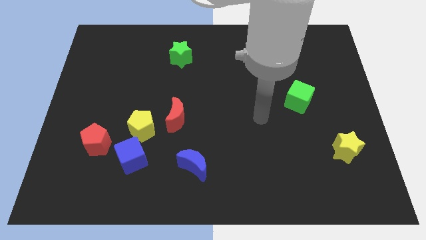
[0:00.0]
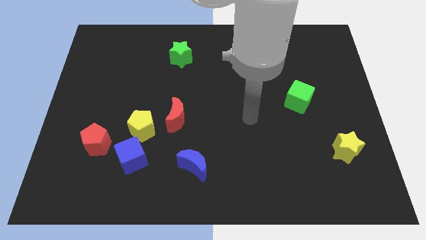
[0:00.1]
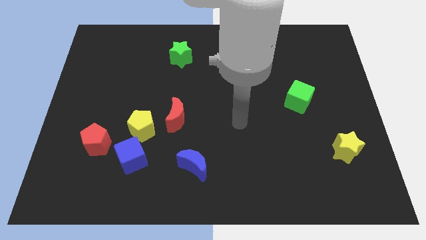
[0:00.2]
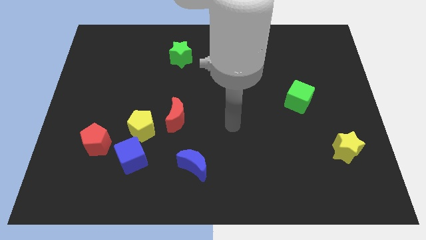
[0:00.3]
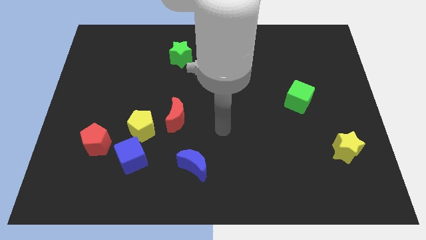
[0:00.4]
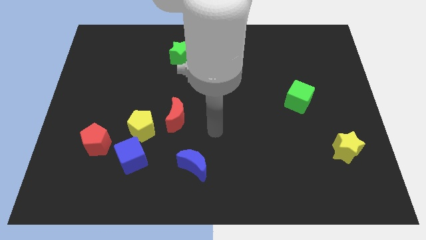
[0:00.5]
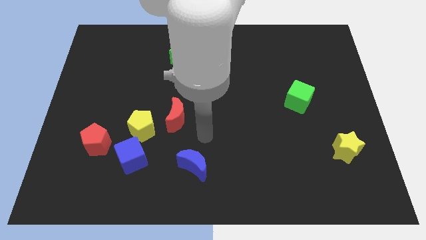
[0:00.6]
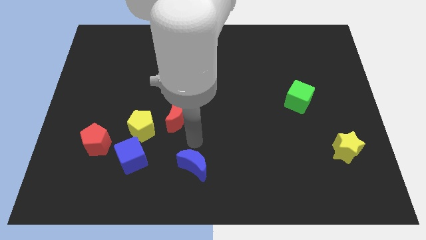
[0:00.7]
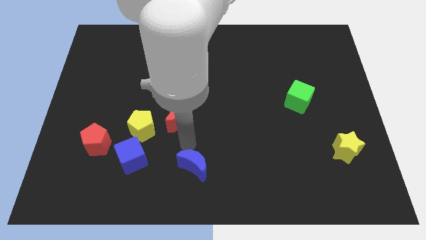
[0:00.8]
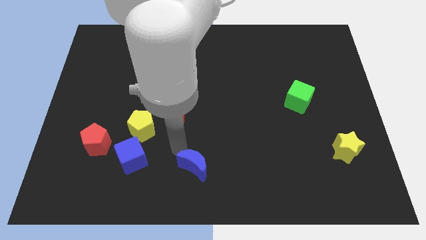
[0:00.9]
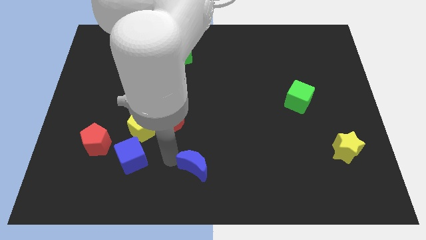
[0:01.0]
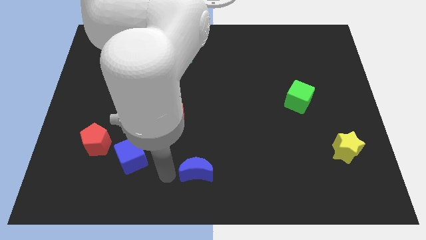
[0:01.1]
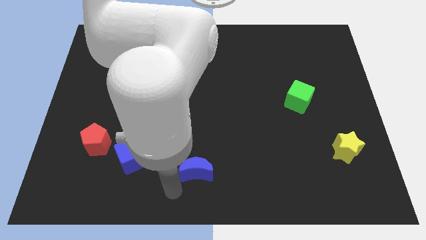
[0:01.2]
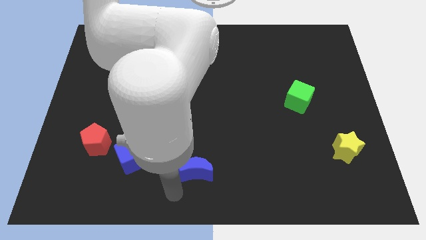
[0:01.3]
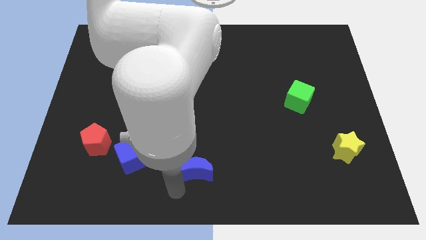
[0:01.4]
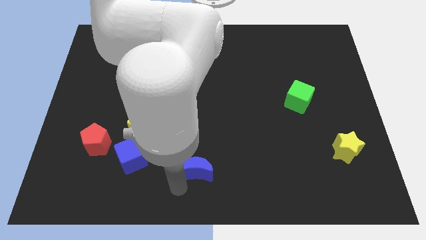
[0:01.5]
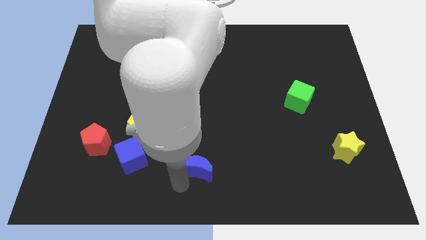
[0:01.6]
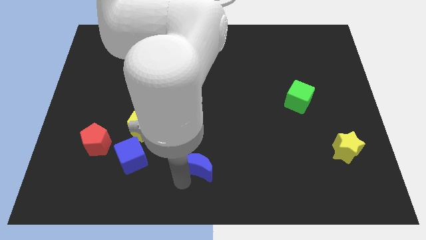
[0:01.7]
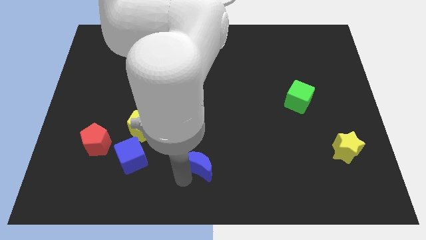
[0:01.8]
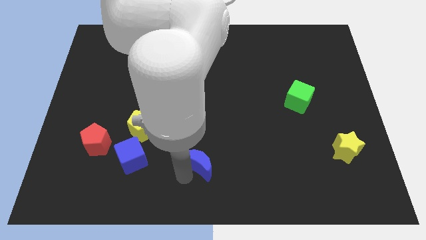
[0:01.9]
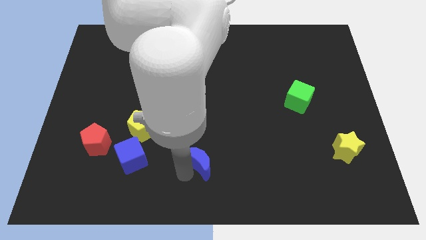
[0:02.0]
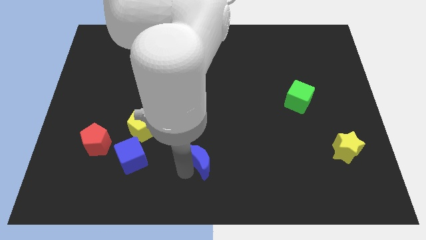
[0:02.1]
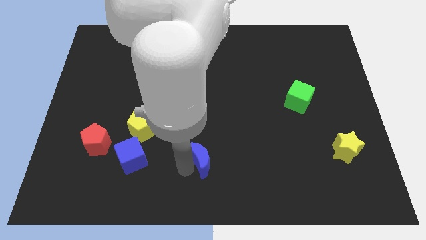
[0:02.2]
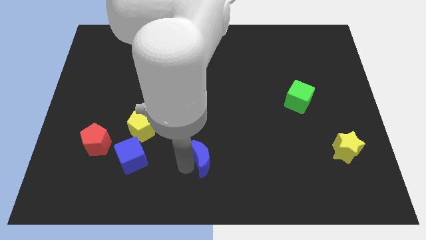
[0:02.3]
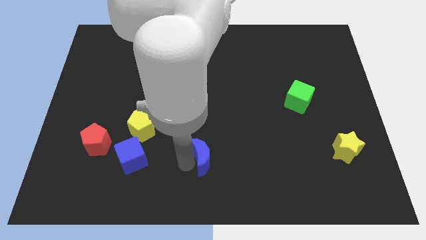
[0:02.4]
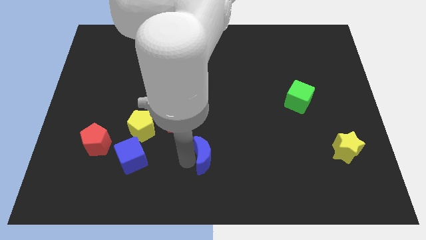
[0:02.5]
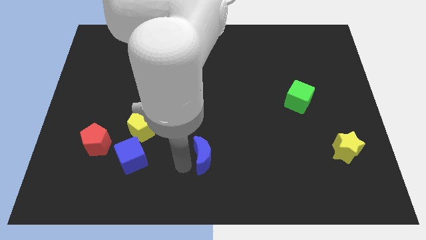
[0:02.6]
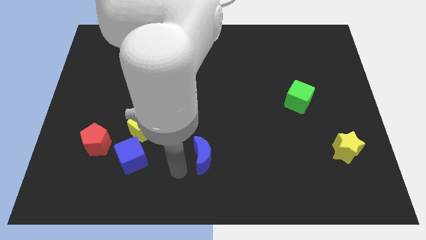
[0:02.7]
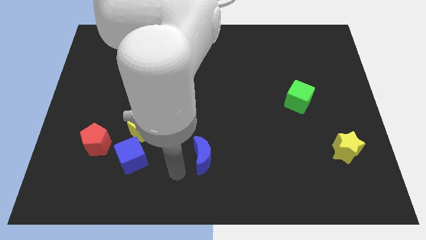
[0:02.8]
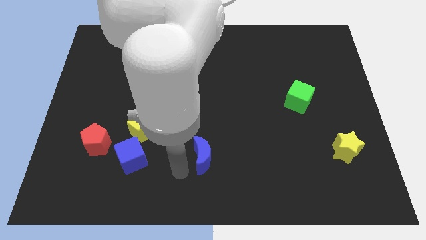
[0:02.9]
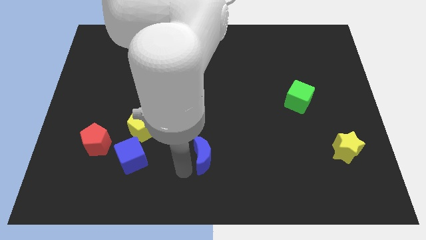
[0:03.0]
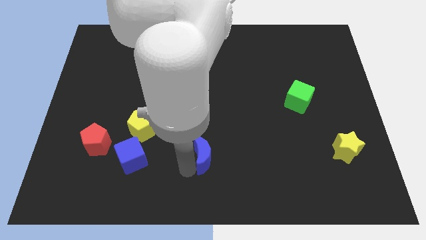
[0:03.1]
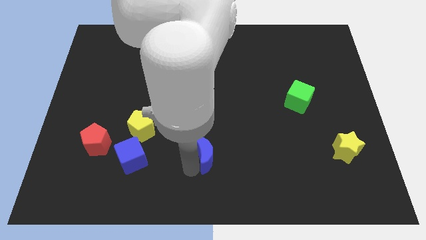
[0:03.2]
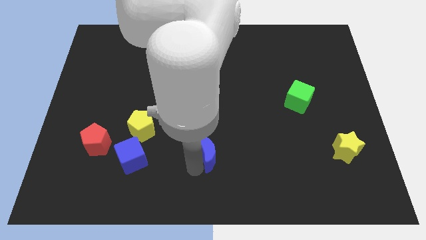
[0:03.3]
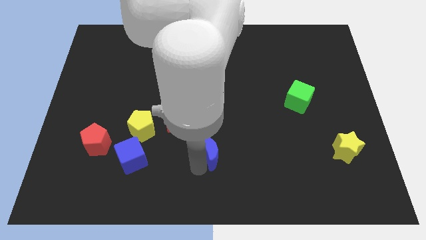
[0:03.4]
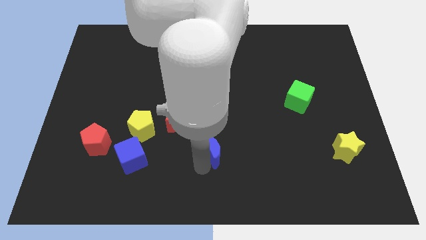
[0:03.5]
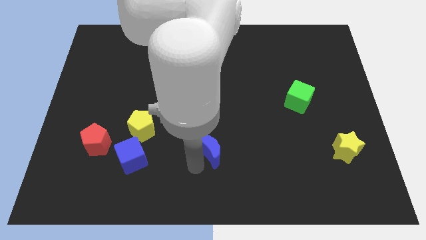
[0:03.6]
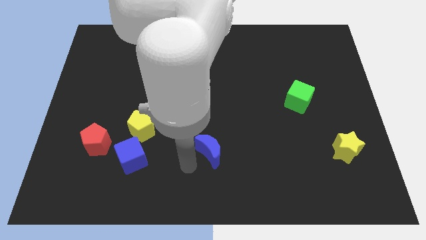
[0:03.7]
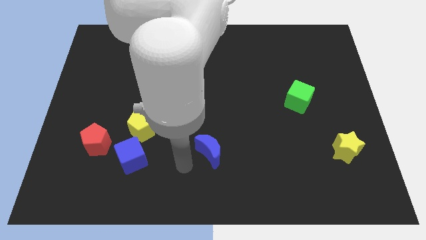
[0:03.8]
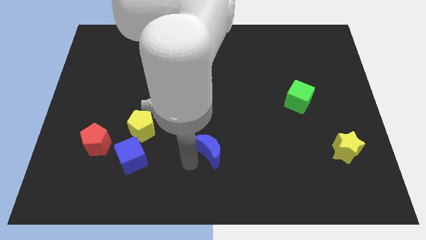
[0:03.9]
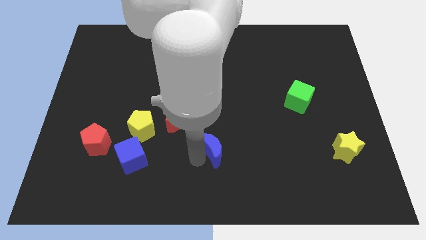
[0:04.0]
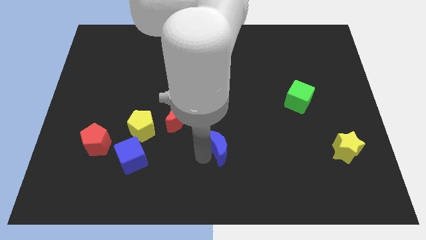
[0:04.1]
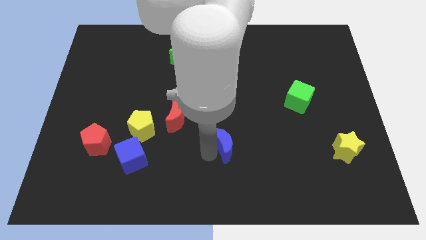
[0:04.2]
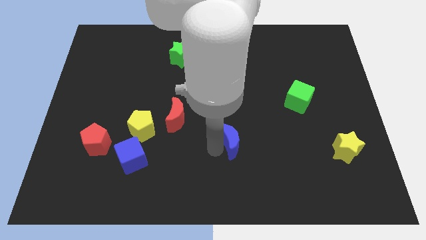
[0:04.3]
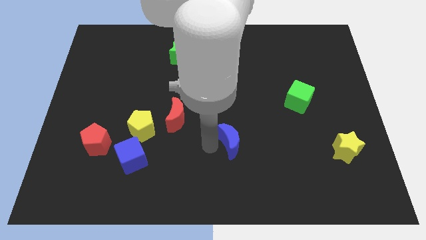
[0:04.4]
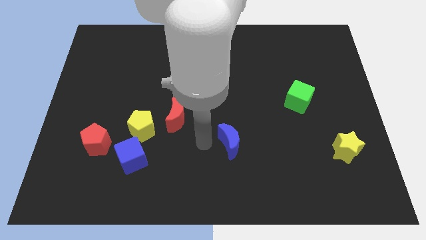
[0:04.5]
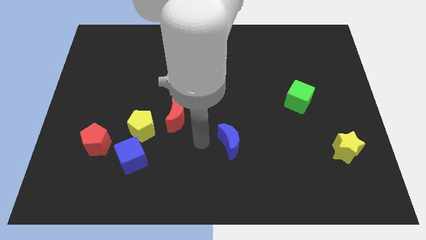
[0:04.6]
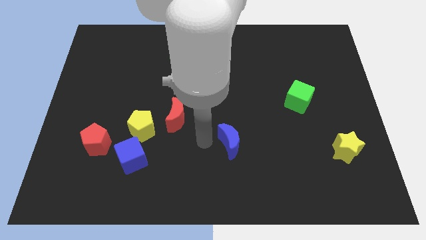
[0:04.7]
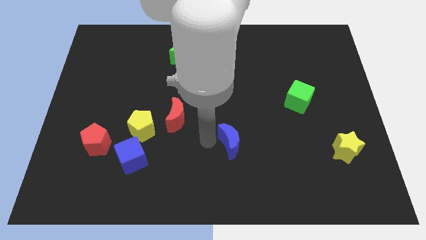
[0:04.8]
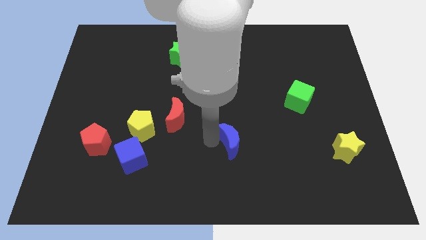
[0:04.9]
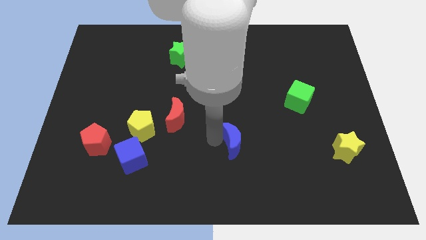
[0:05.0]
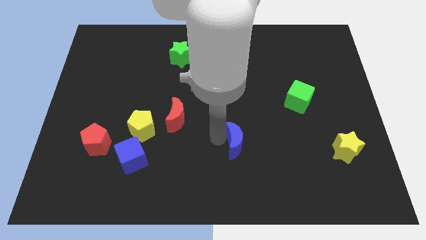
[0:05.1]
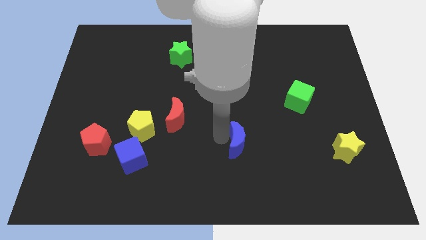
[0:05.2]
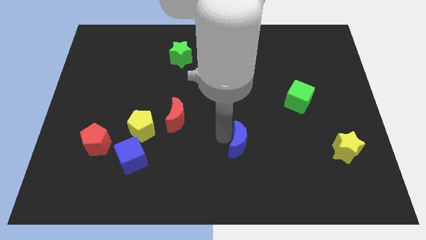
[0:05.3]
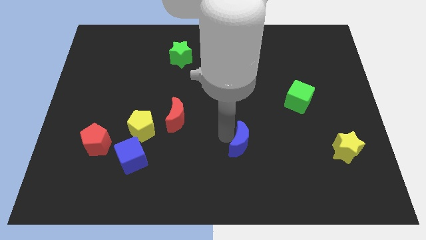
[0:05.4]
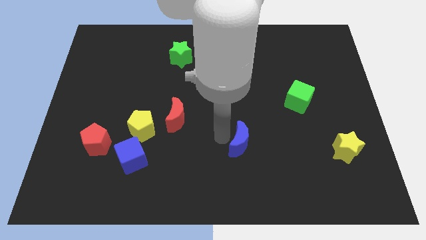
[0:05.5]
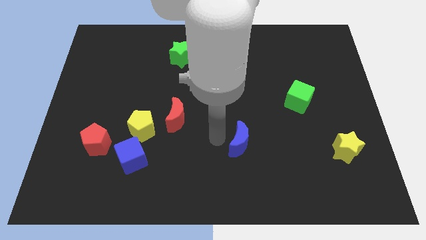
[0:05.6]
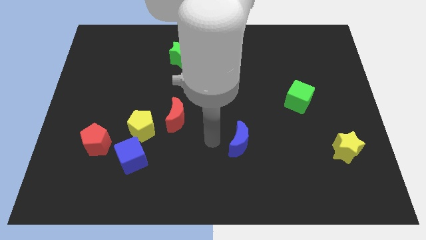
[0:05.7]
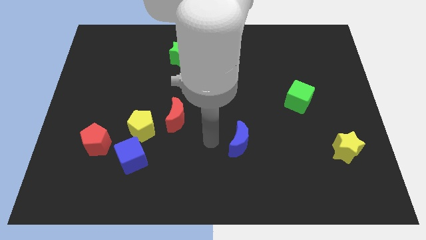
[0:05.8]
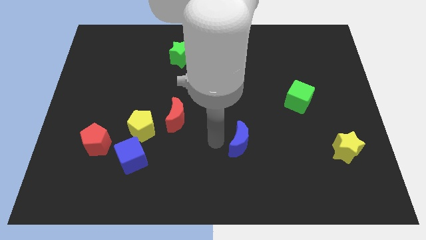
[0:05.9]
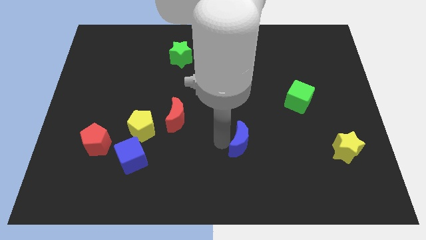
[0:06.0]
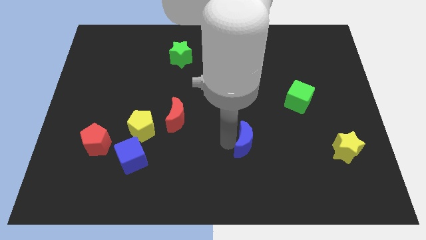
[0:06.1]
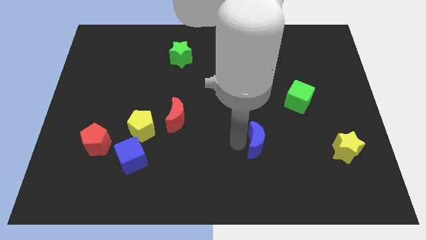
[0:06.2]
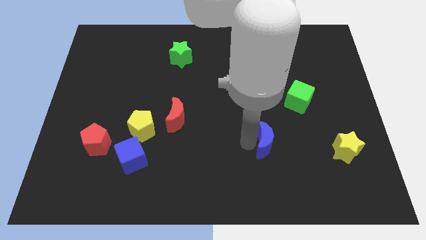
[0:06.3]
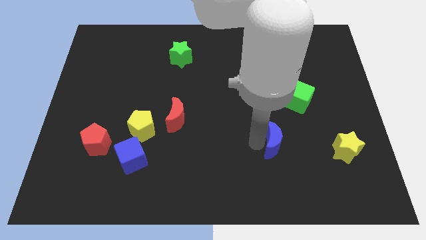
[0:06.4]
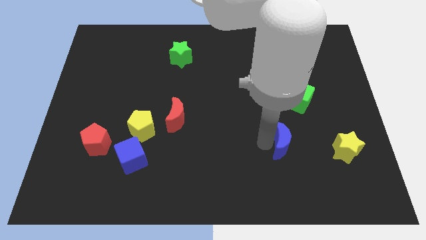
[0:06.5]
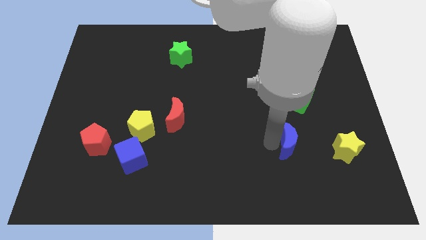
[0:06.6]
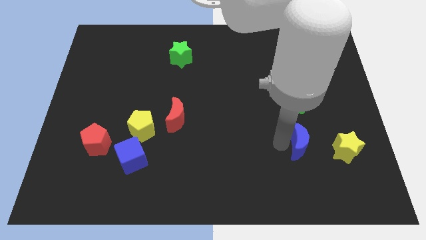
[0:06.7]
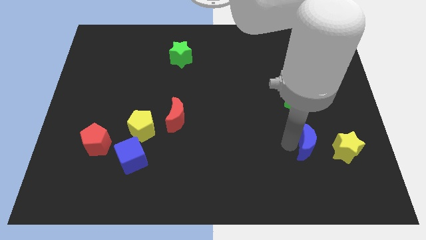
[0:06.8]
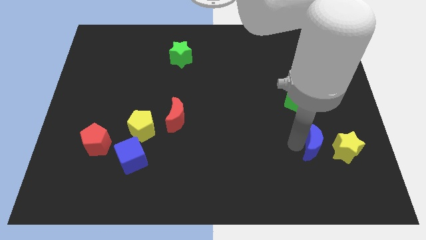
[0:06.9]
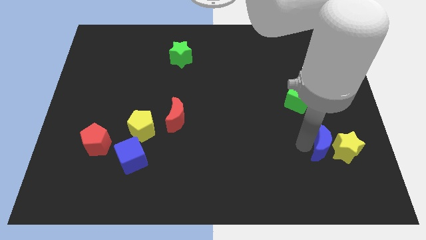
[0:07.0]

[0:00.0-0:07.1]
put the blue moon close to the yellow star
